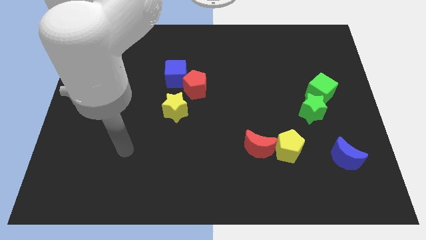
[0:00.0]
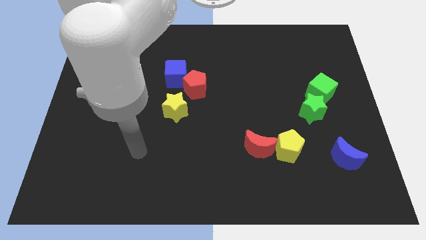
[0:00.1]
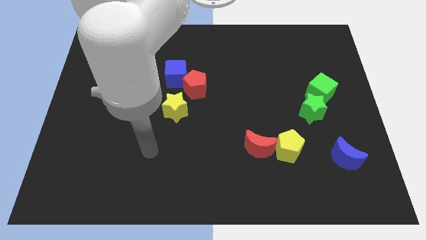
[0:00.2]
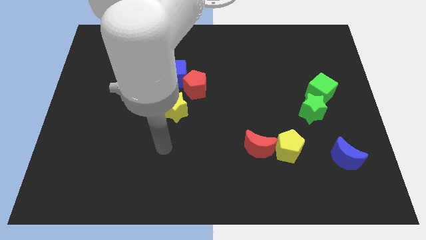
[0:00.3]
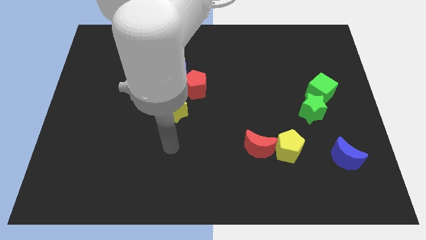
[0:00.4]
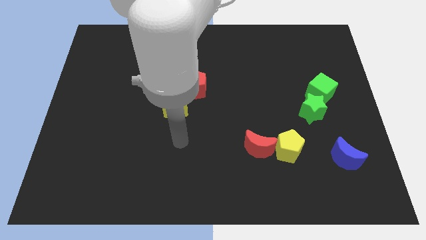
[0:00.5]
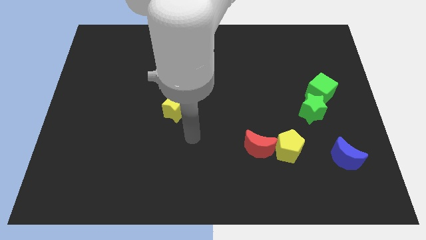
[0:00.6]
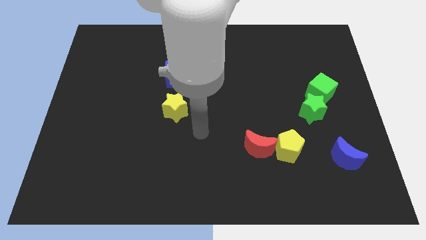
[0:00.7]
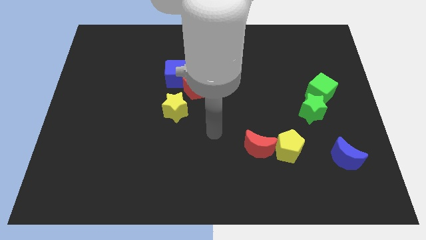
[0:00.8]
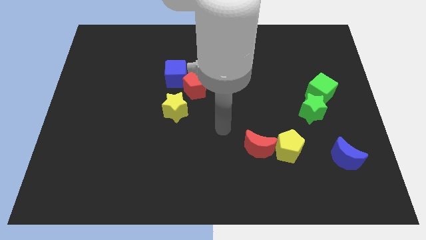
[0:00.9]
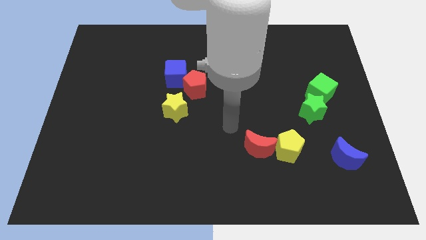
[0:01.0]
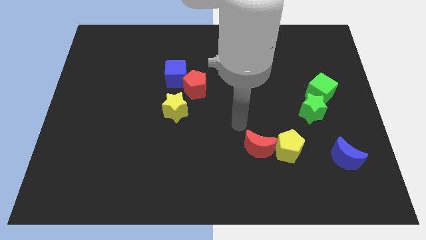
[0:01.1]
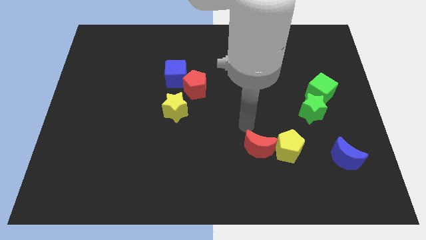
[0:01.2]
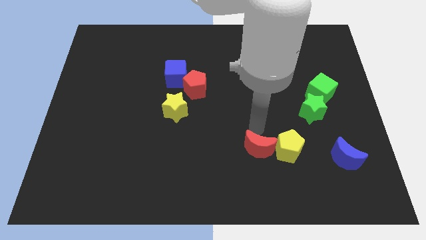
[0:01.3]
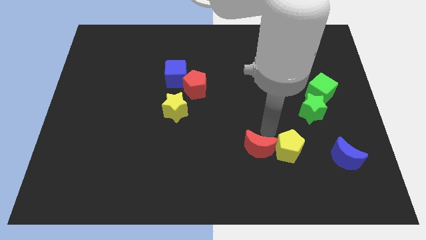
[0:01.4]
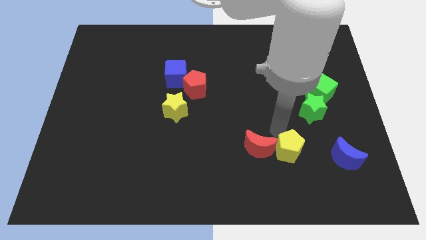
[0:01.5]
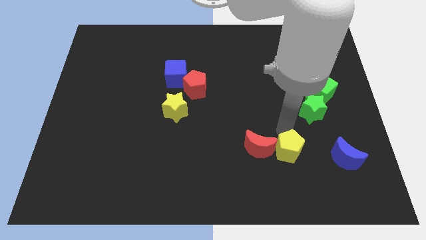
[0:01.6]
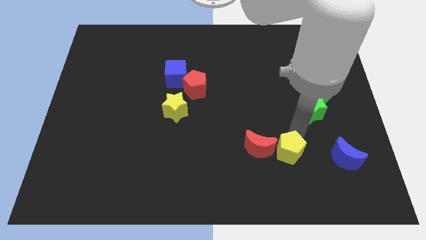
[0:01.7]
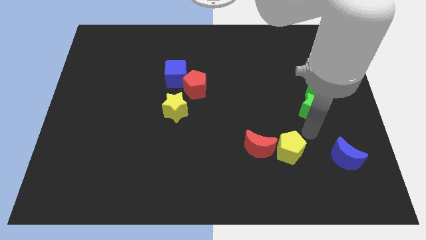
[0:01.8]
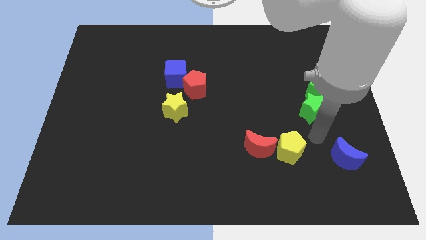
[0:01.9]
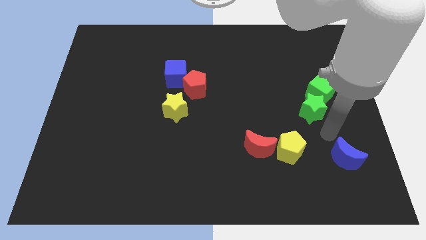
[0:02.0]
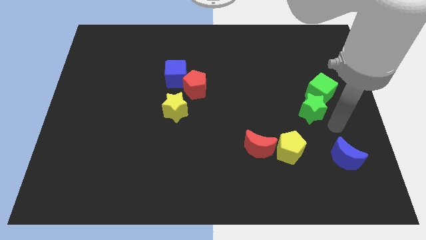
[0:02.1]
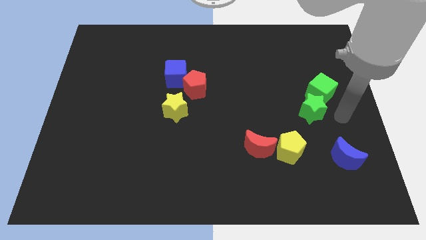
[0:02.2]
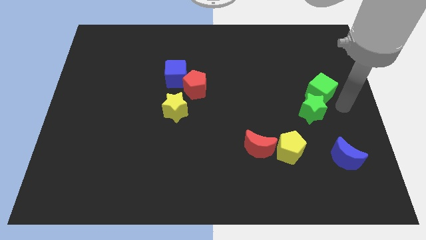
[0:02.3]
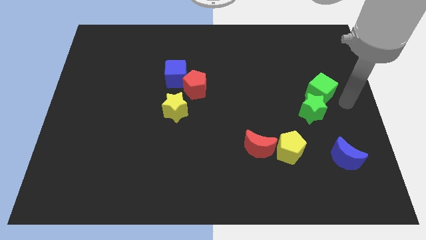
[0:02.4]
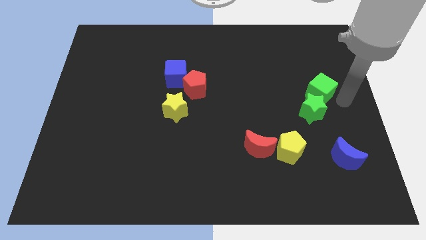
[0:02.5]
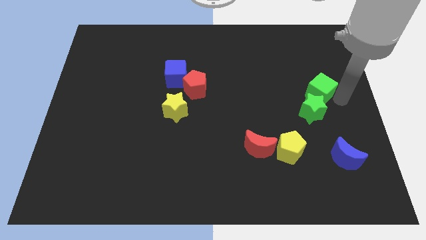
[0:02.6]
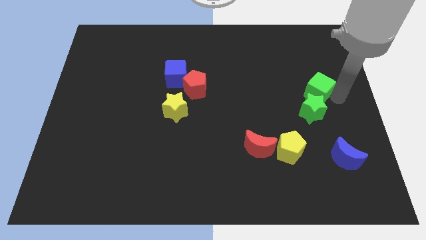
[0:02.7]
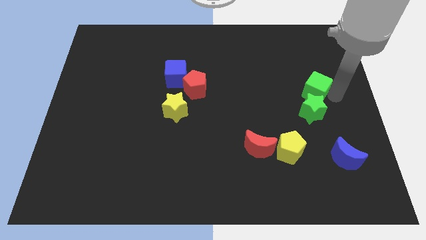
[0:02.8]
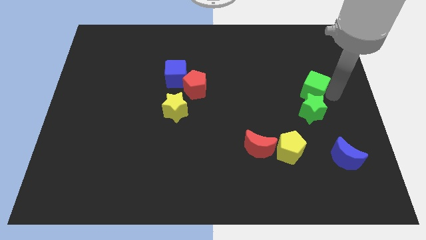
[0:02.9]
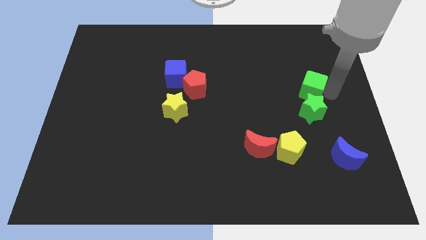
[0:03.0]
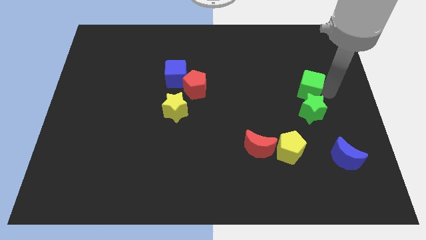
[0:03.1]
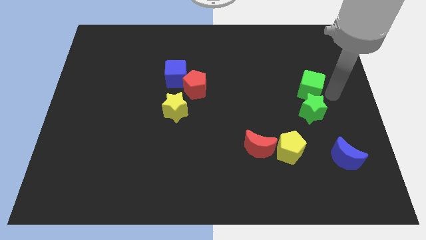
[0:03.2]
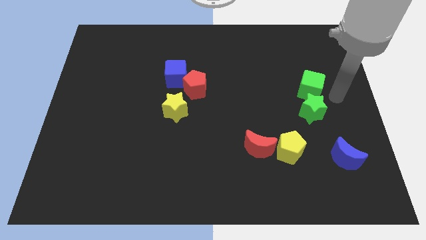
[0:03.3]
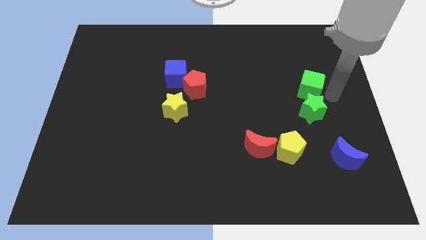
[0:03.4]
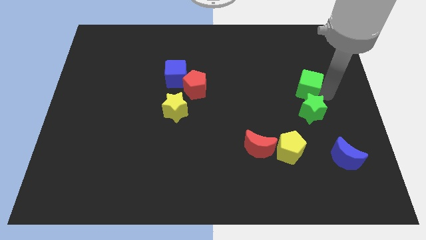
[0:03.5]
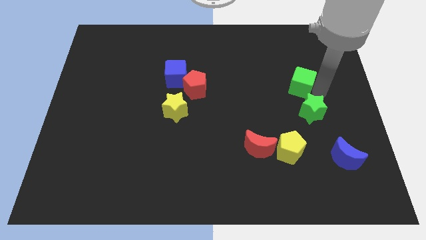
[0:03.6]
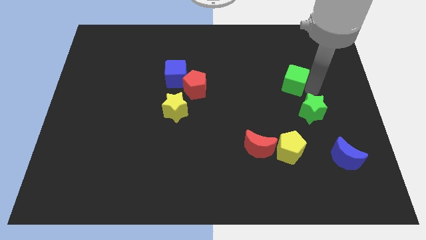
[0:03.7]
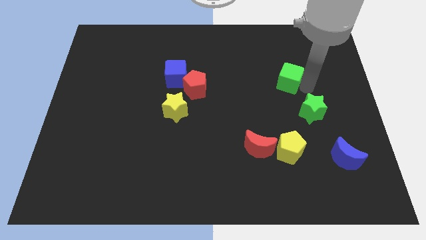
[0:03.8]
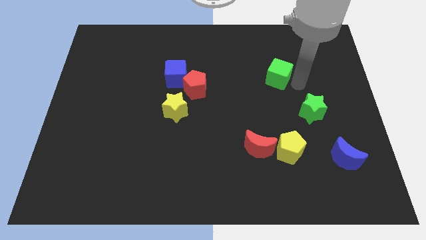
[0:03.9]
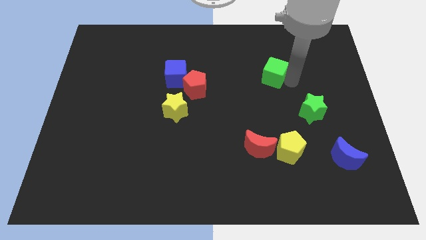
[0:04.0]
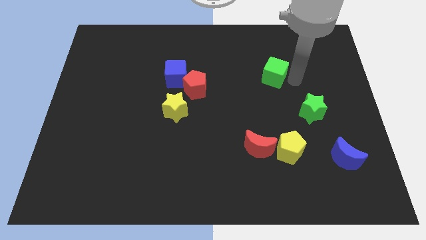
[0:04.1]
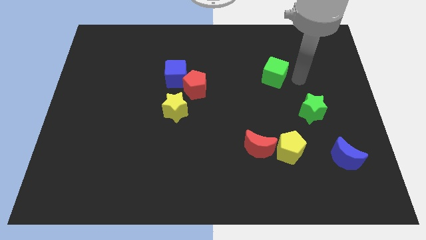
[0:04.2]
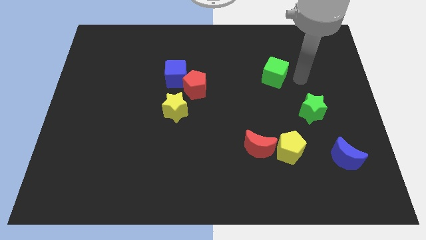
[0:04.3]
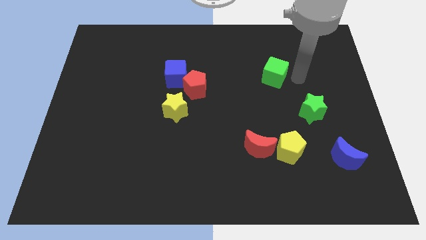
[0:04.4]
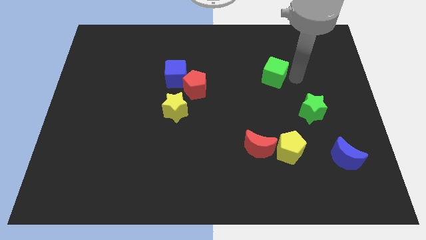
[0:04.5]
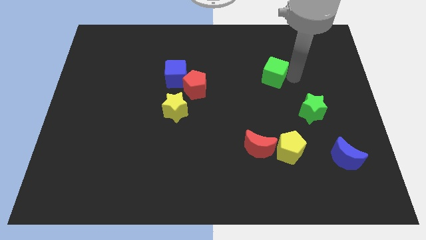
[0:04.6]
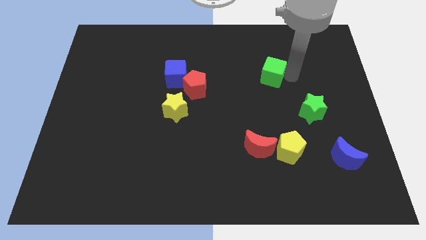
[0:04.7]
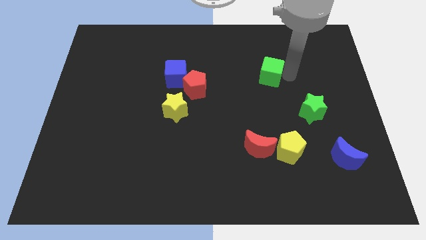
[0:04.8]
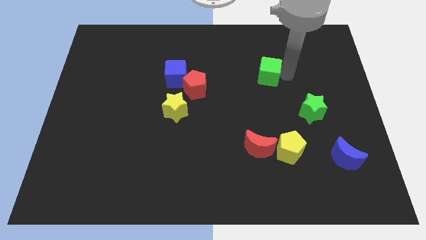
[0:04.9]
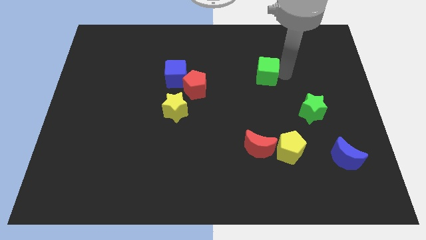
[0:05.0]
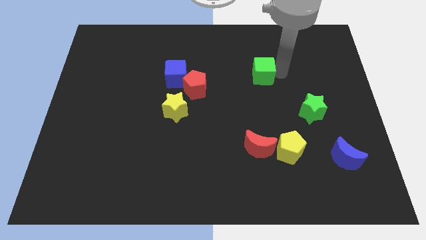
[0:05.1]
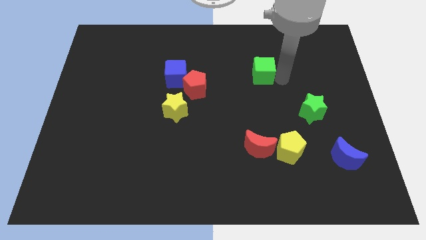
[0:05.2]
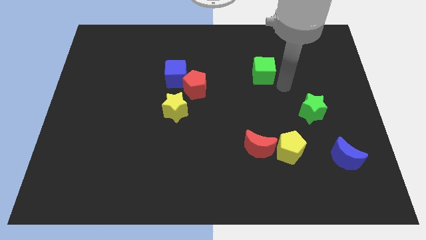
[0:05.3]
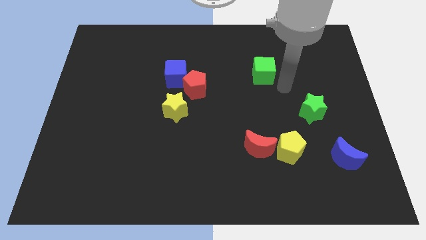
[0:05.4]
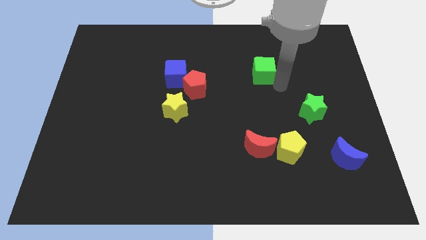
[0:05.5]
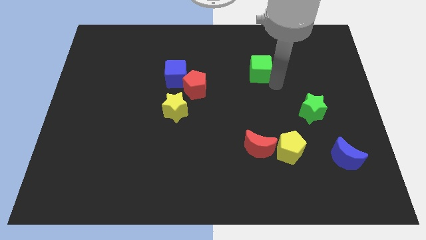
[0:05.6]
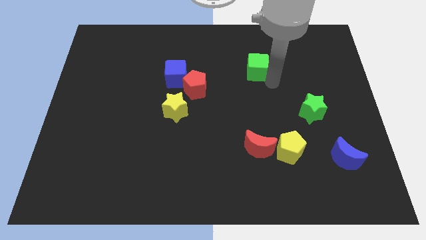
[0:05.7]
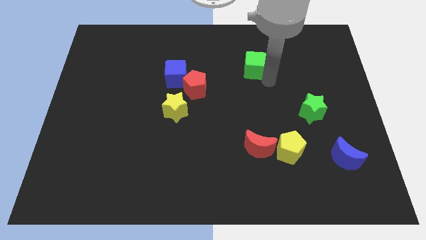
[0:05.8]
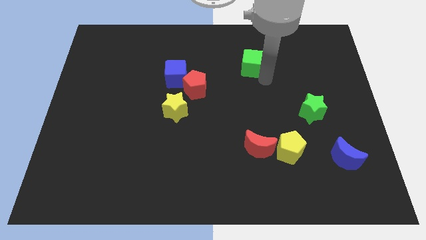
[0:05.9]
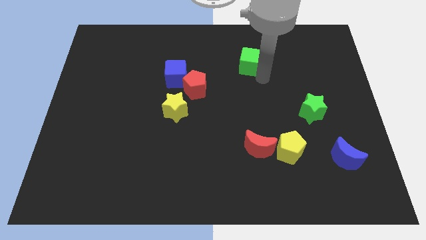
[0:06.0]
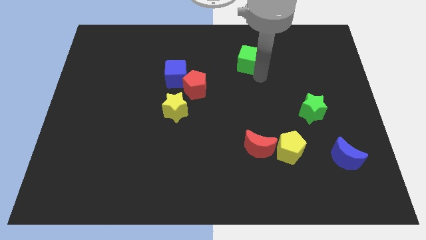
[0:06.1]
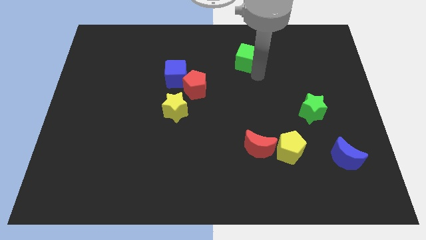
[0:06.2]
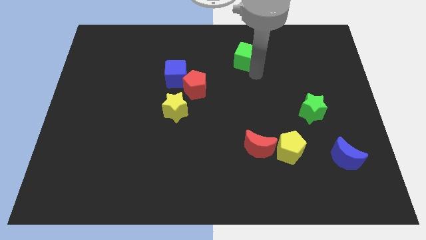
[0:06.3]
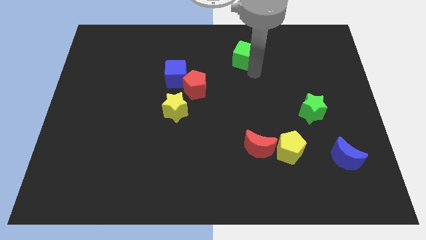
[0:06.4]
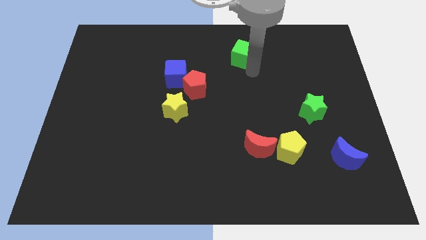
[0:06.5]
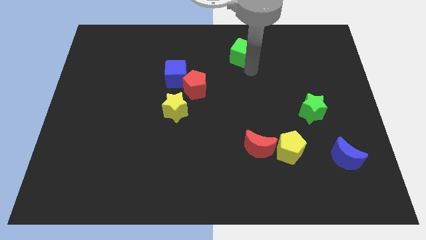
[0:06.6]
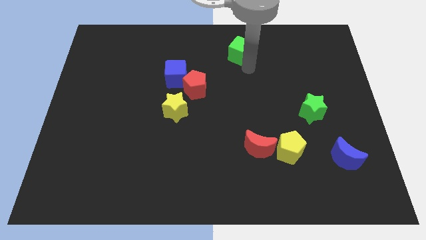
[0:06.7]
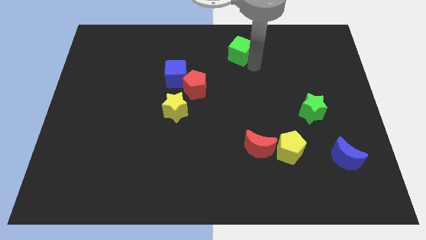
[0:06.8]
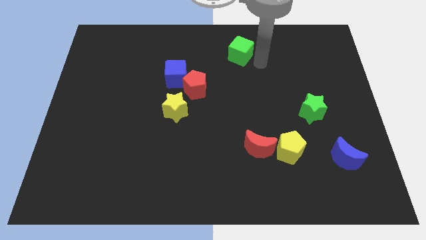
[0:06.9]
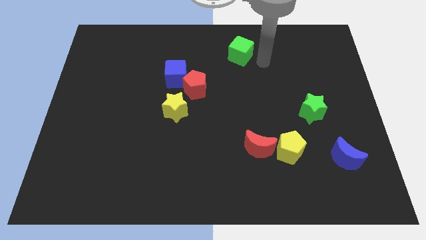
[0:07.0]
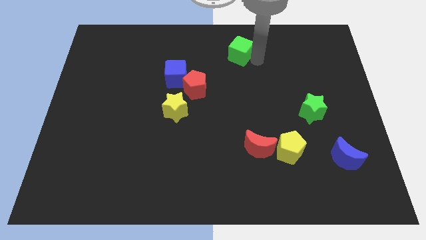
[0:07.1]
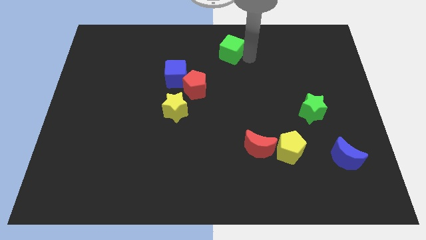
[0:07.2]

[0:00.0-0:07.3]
slide the green cube to the towards your base
